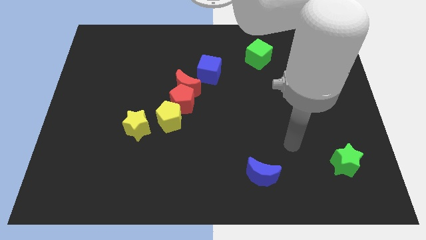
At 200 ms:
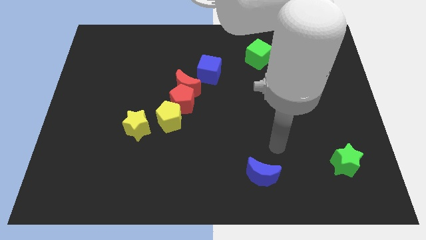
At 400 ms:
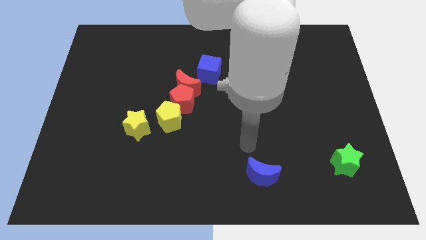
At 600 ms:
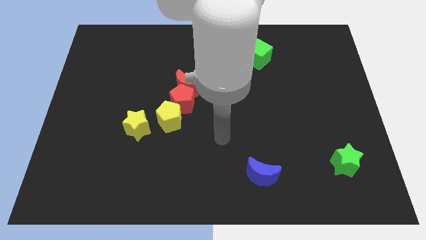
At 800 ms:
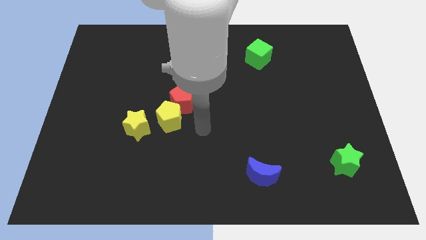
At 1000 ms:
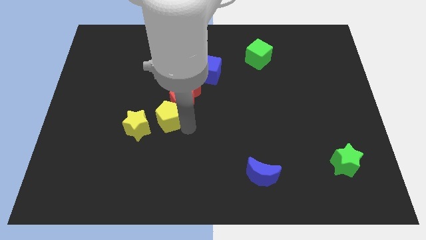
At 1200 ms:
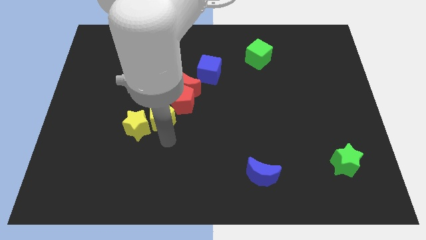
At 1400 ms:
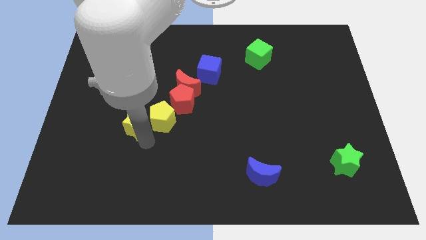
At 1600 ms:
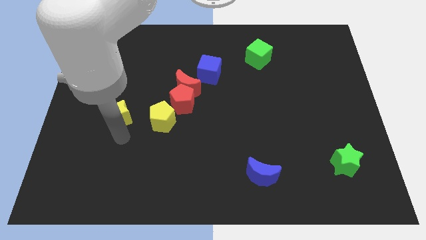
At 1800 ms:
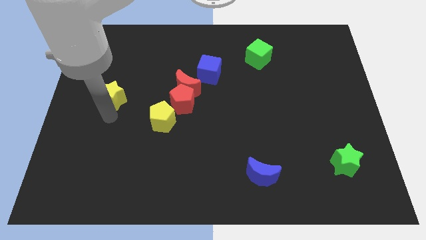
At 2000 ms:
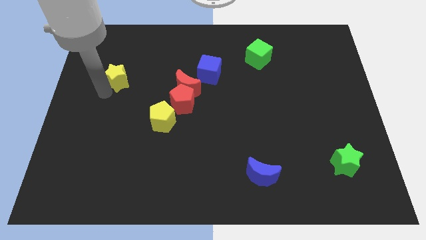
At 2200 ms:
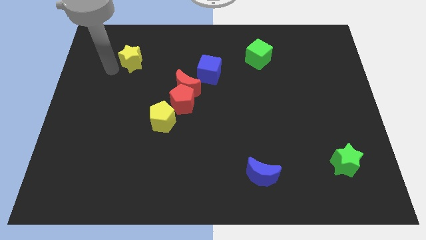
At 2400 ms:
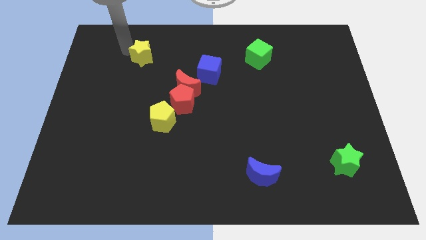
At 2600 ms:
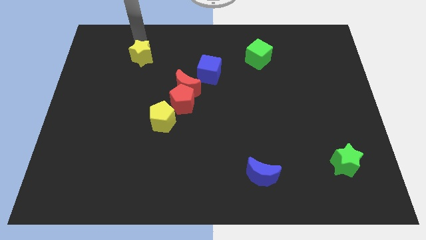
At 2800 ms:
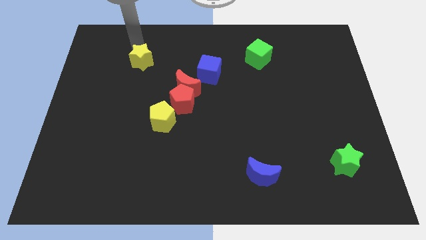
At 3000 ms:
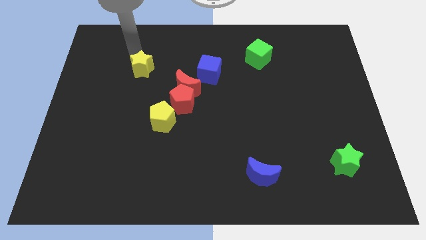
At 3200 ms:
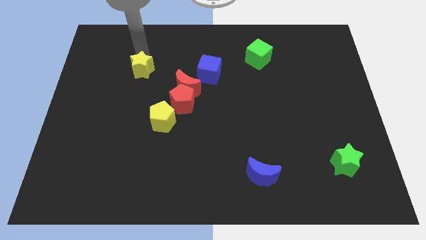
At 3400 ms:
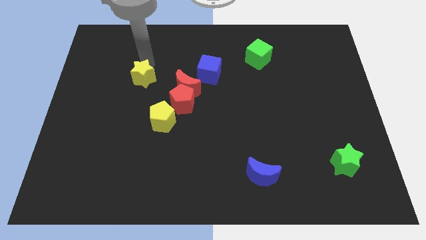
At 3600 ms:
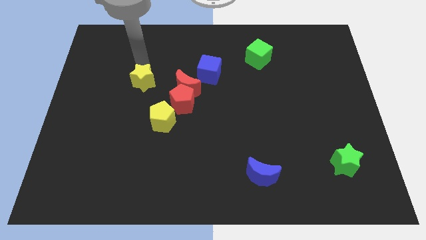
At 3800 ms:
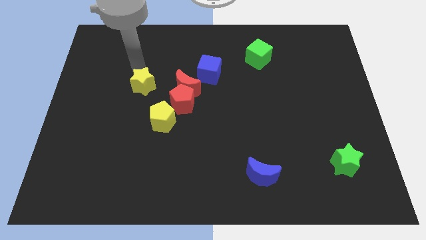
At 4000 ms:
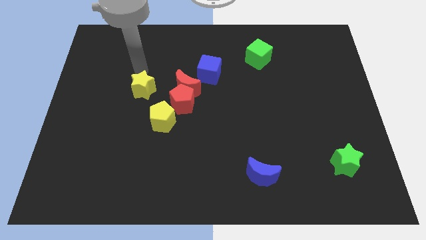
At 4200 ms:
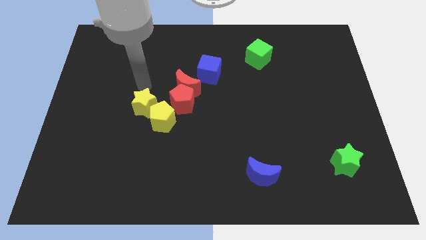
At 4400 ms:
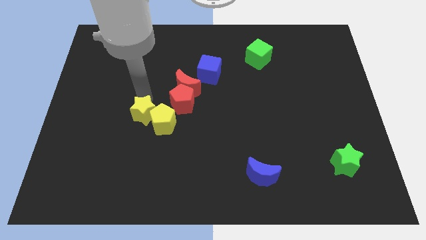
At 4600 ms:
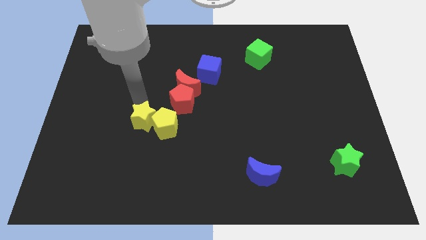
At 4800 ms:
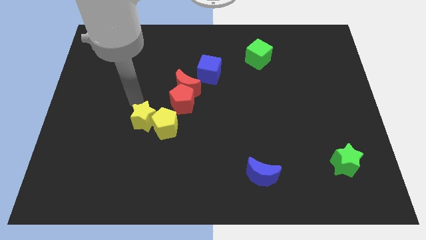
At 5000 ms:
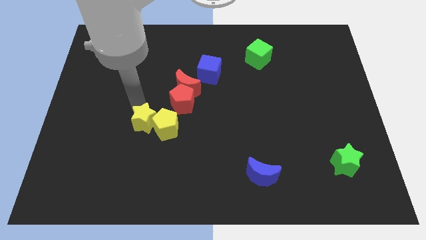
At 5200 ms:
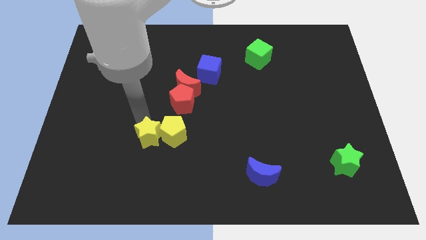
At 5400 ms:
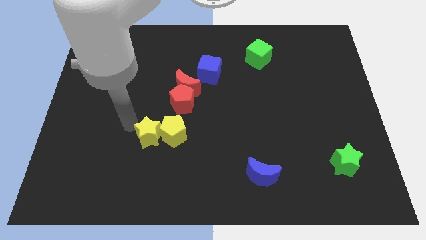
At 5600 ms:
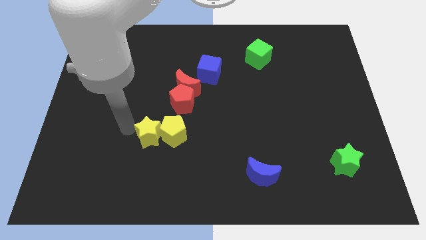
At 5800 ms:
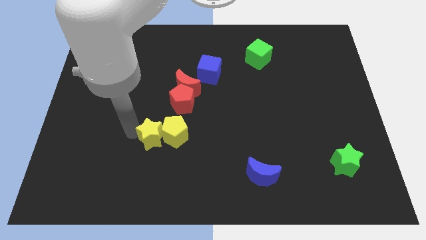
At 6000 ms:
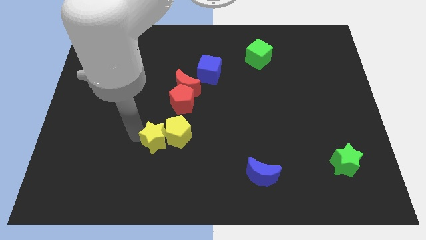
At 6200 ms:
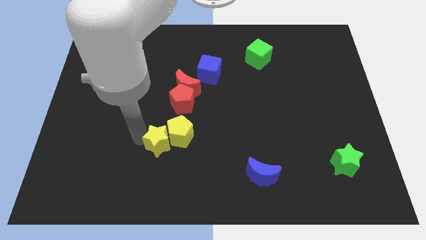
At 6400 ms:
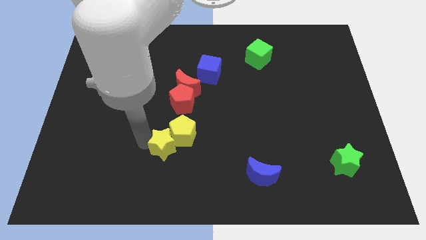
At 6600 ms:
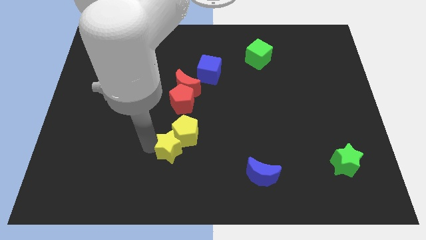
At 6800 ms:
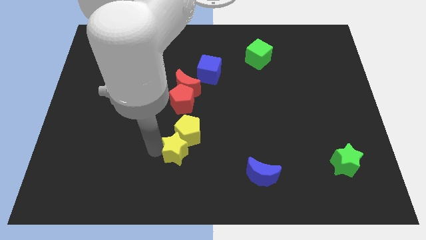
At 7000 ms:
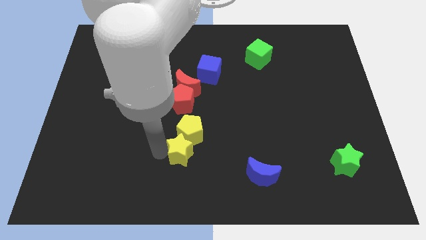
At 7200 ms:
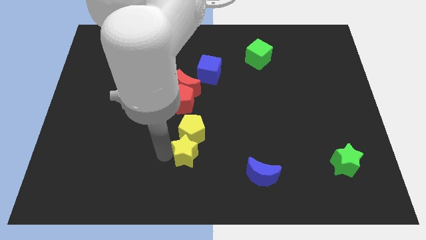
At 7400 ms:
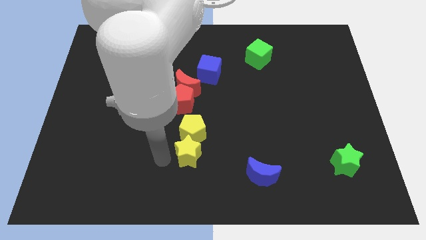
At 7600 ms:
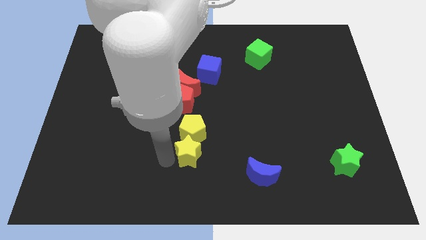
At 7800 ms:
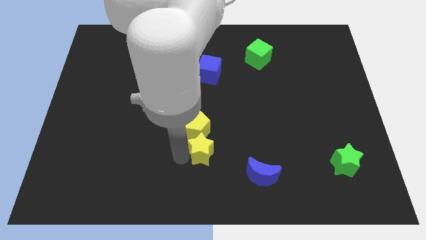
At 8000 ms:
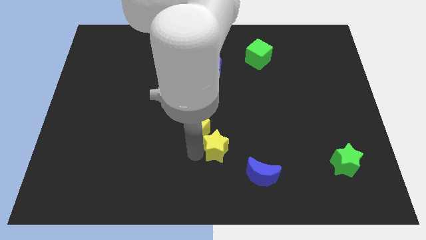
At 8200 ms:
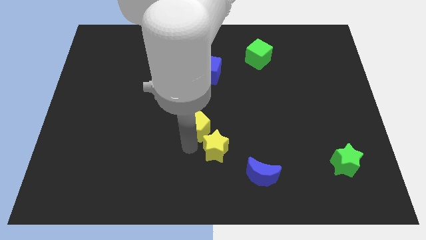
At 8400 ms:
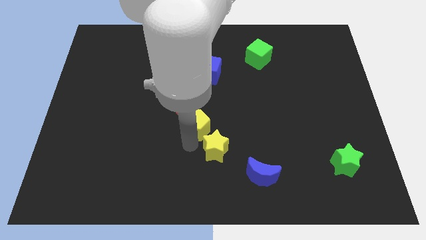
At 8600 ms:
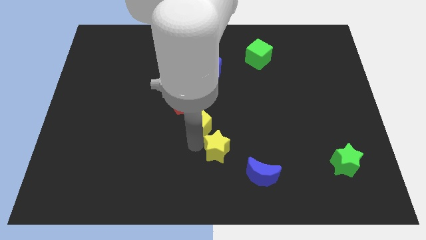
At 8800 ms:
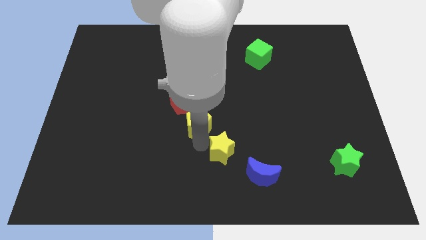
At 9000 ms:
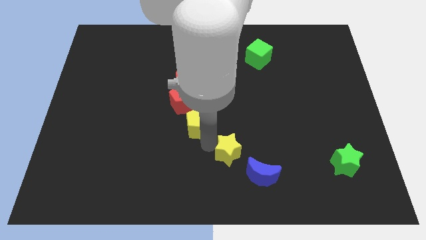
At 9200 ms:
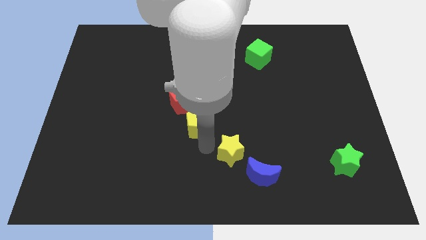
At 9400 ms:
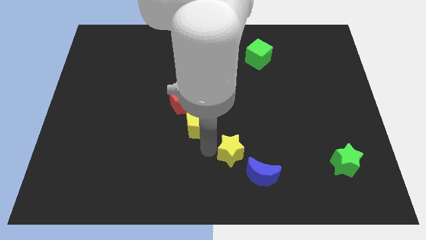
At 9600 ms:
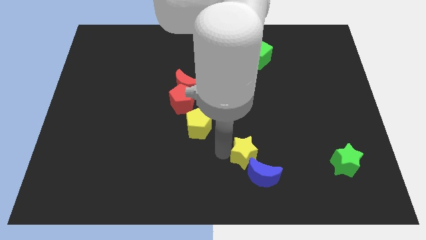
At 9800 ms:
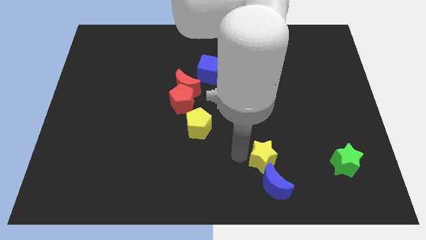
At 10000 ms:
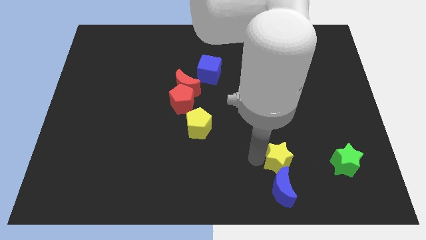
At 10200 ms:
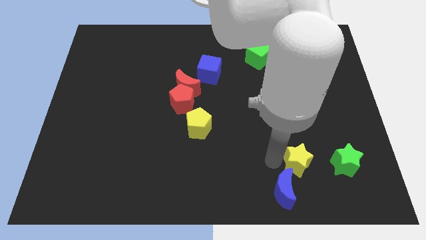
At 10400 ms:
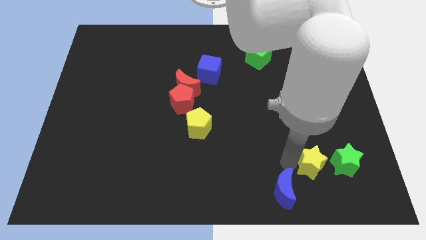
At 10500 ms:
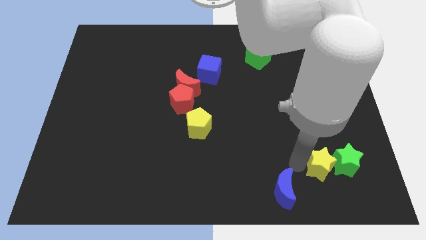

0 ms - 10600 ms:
put the yellow star to the green star

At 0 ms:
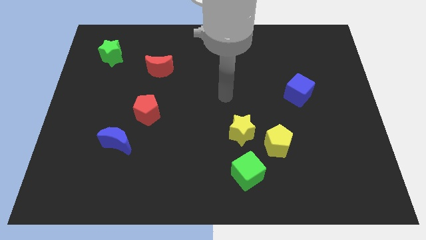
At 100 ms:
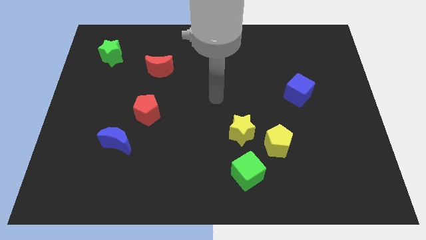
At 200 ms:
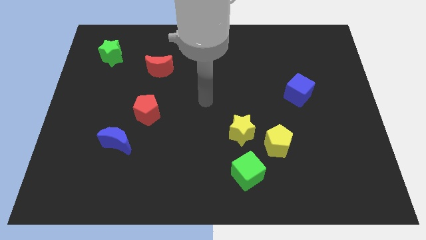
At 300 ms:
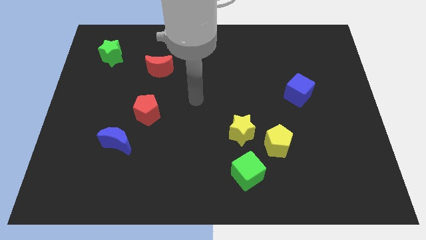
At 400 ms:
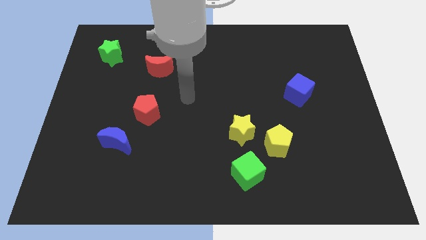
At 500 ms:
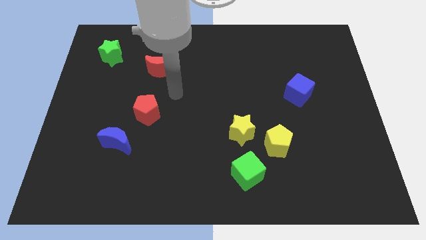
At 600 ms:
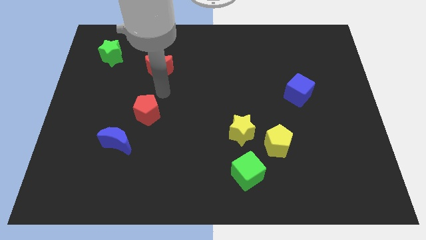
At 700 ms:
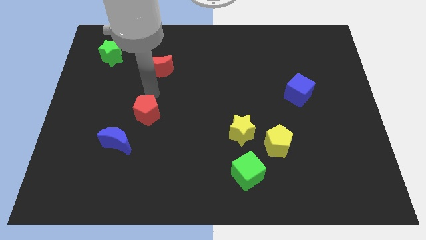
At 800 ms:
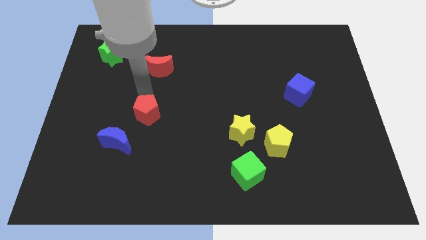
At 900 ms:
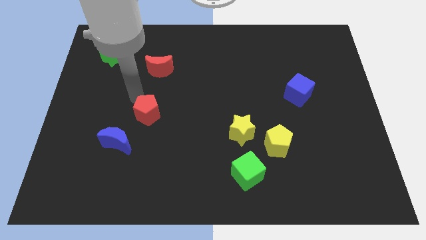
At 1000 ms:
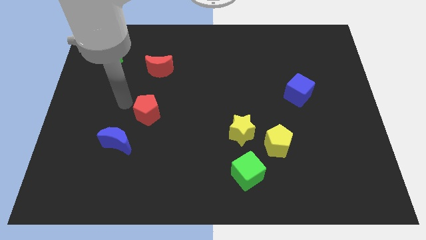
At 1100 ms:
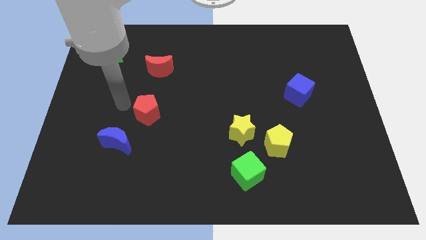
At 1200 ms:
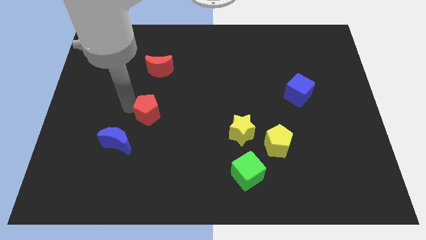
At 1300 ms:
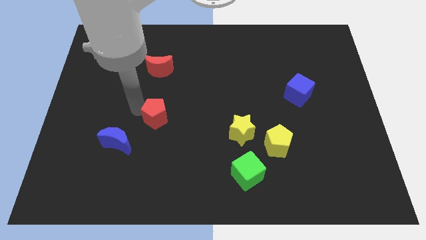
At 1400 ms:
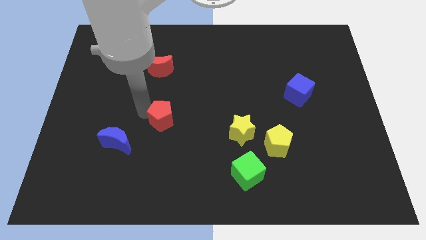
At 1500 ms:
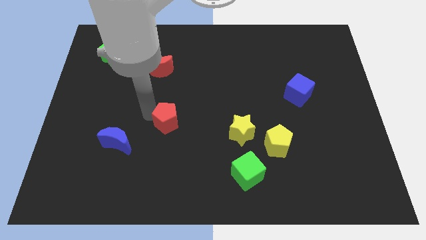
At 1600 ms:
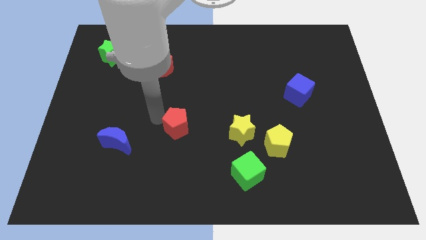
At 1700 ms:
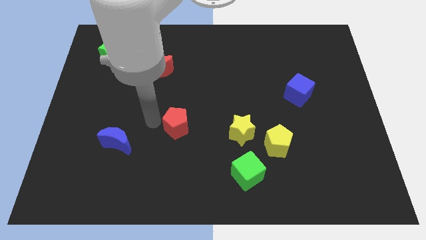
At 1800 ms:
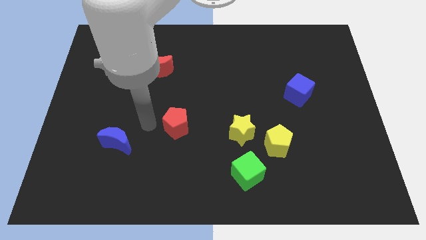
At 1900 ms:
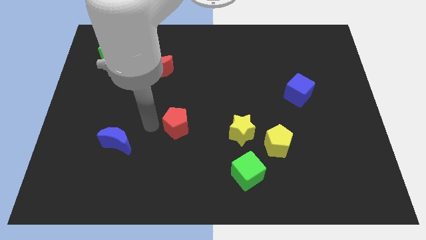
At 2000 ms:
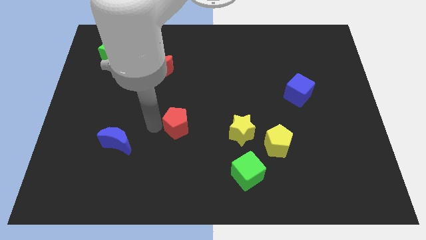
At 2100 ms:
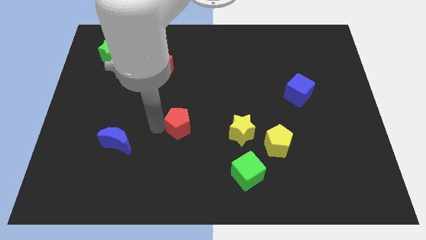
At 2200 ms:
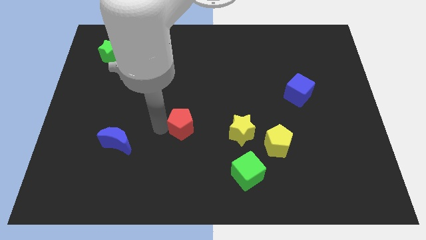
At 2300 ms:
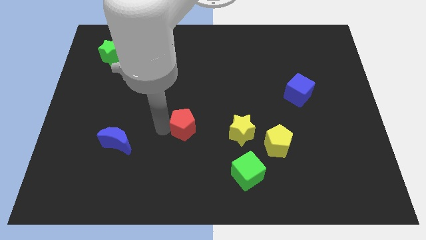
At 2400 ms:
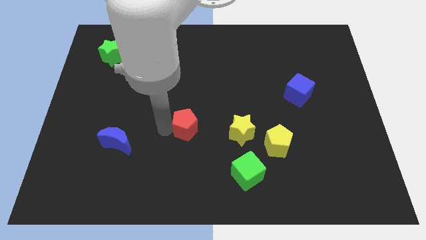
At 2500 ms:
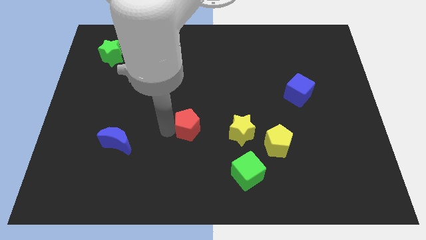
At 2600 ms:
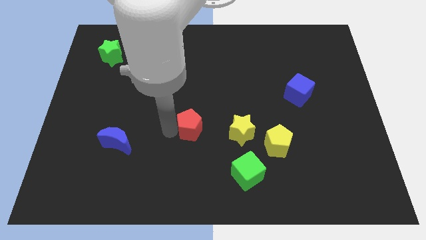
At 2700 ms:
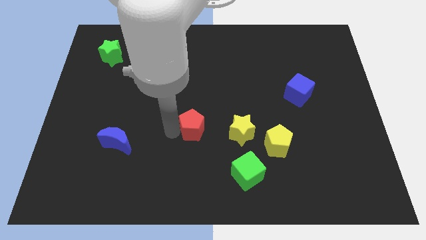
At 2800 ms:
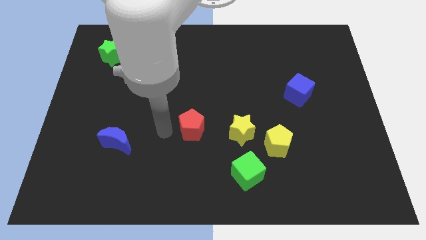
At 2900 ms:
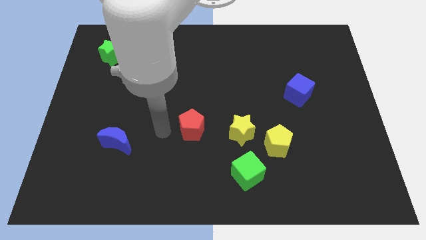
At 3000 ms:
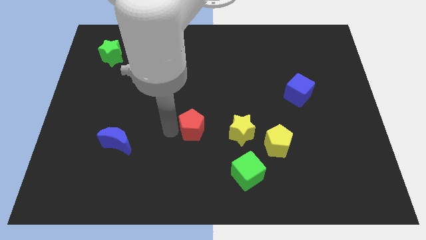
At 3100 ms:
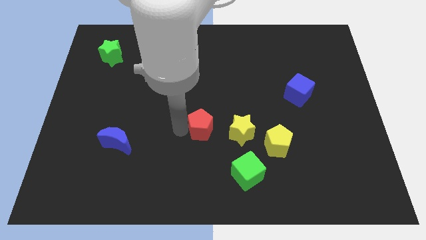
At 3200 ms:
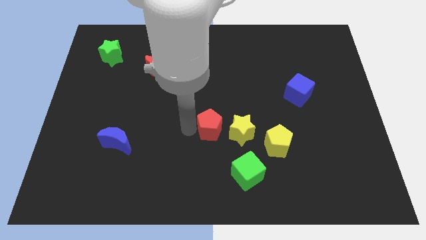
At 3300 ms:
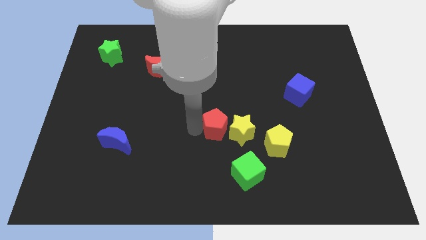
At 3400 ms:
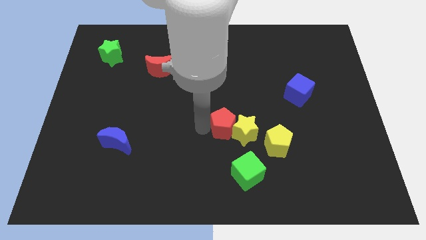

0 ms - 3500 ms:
slide the red pentagon next to the yellow star
